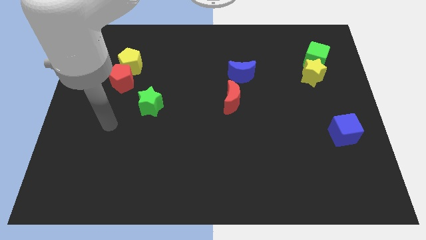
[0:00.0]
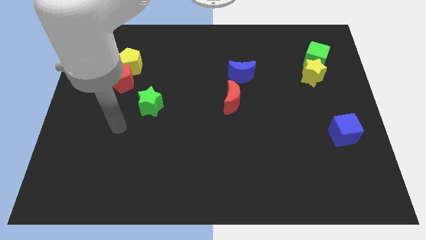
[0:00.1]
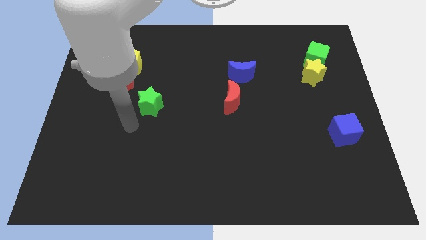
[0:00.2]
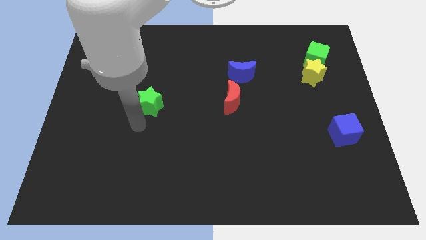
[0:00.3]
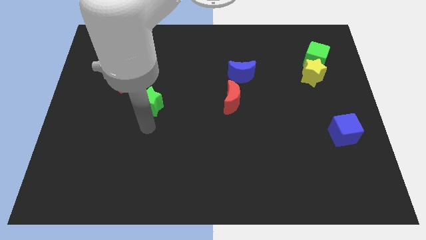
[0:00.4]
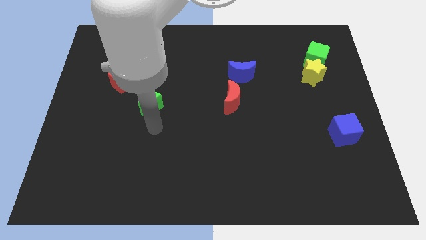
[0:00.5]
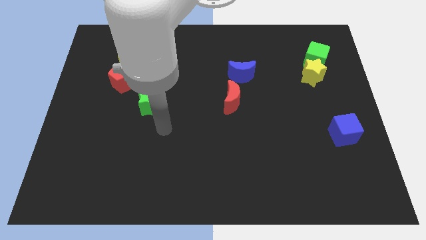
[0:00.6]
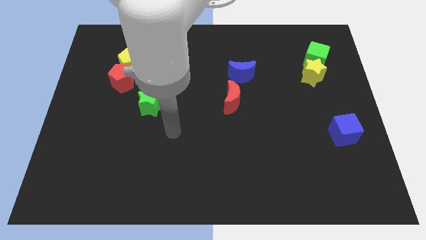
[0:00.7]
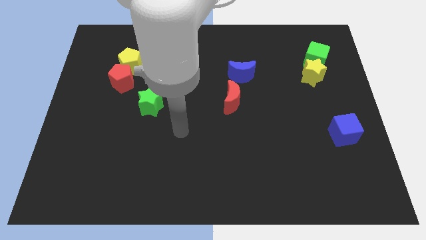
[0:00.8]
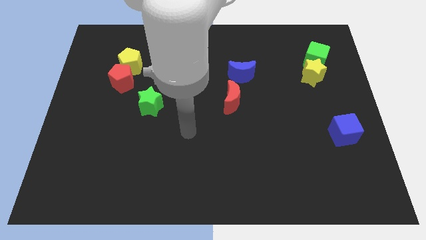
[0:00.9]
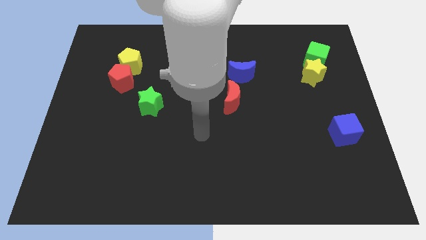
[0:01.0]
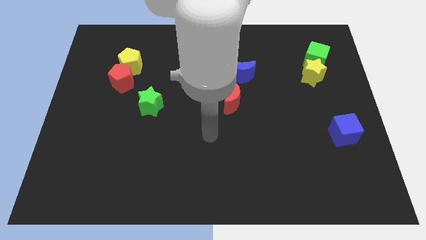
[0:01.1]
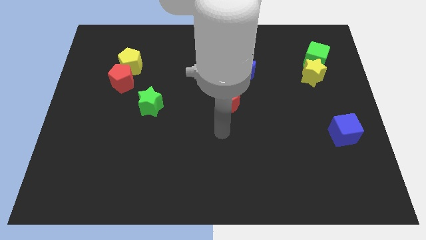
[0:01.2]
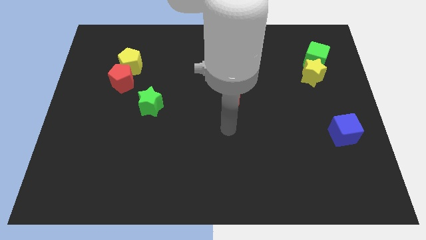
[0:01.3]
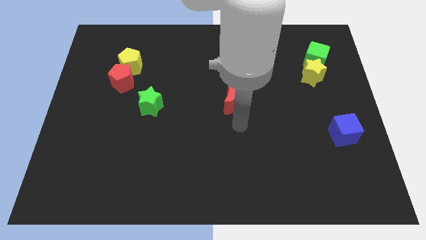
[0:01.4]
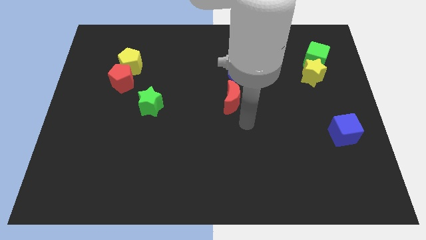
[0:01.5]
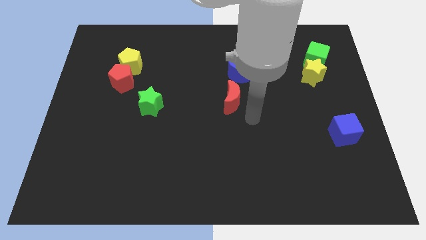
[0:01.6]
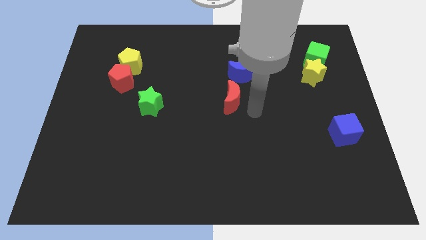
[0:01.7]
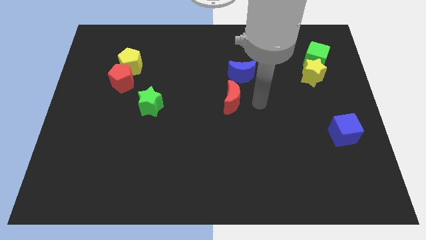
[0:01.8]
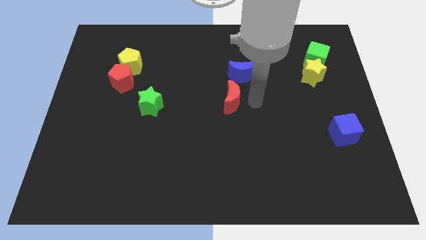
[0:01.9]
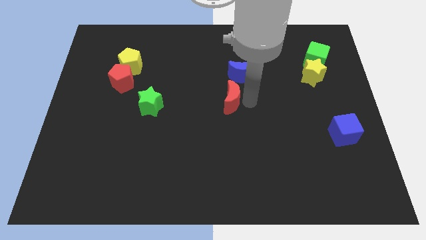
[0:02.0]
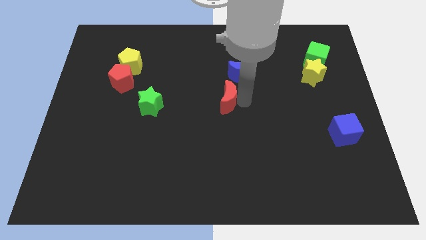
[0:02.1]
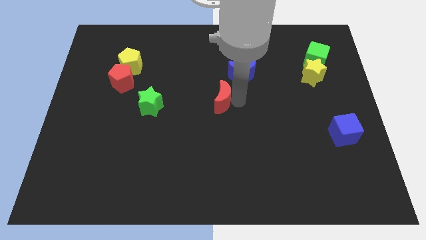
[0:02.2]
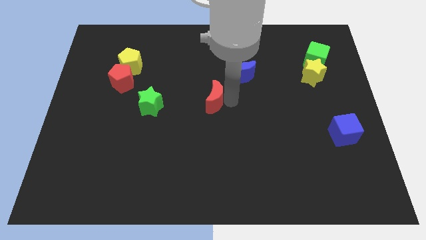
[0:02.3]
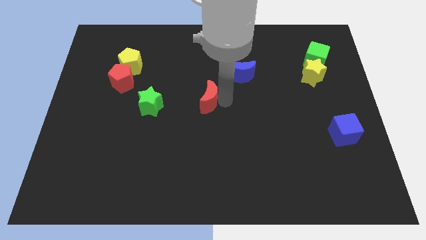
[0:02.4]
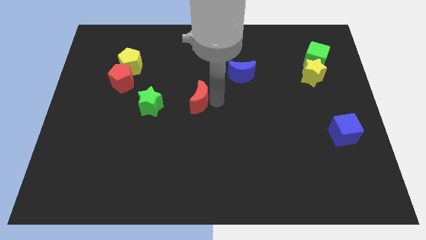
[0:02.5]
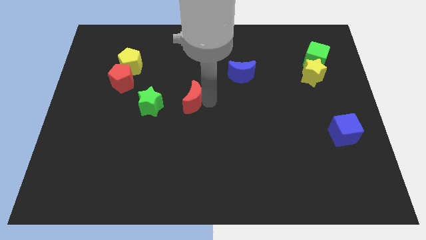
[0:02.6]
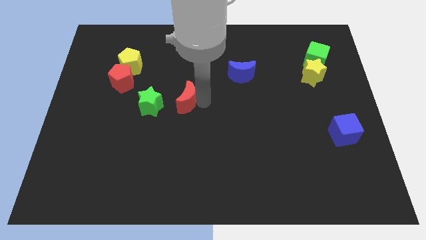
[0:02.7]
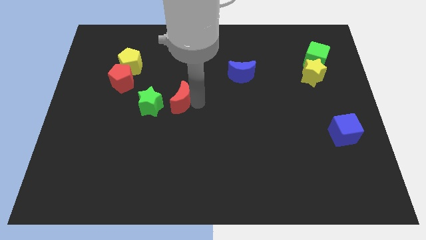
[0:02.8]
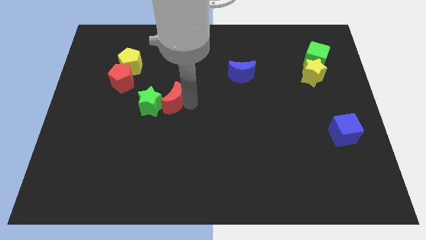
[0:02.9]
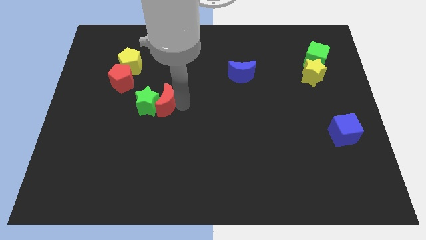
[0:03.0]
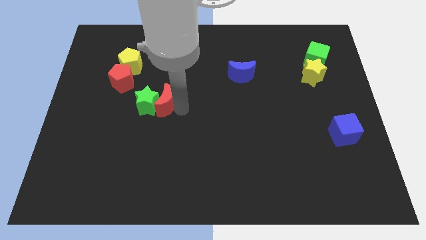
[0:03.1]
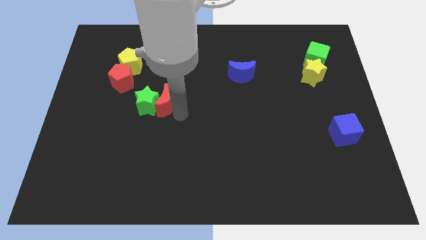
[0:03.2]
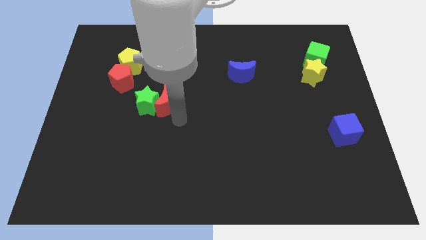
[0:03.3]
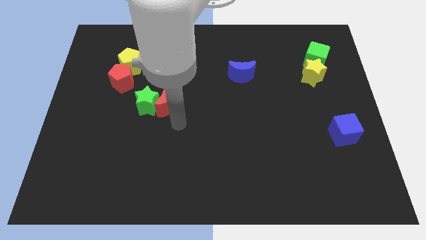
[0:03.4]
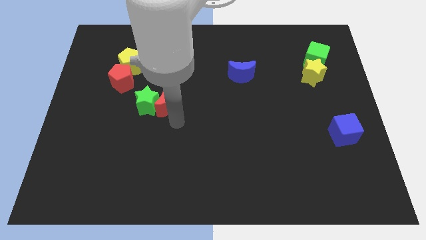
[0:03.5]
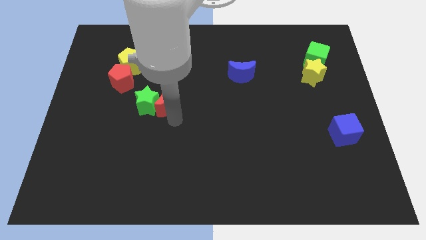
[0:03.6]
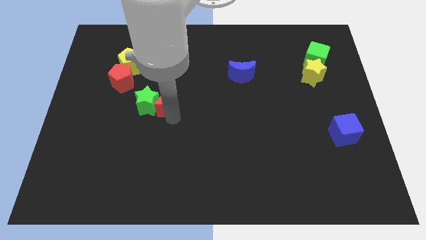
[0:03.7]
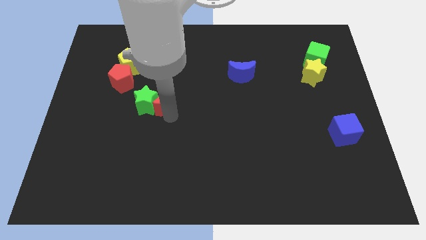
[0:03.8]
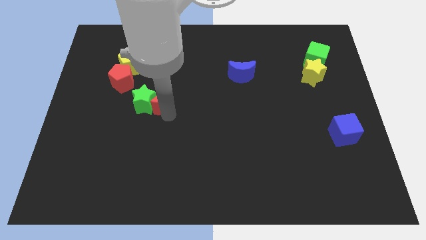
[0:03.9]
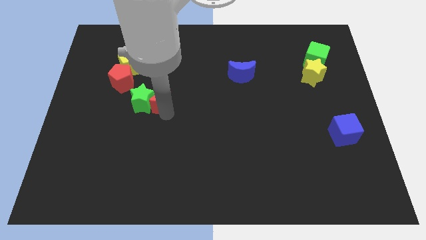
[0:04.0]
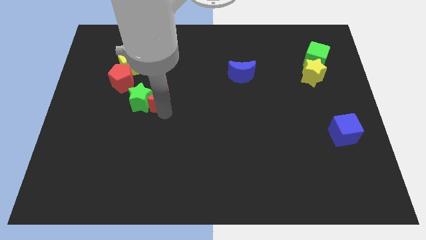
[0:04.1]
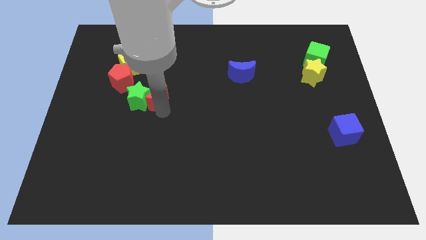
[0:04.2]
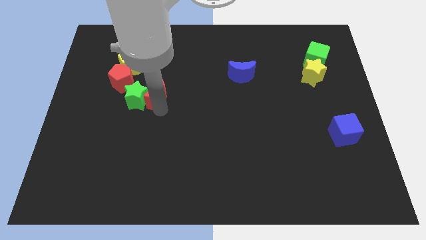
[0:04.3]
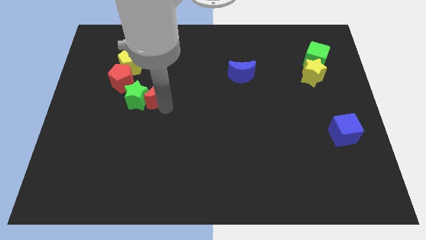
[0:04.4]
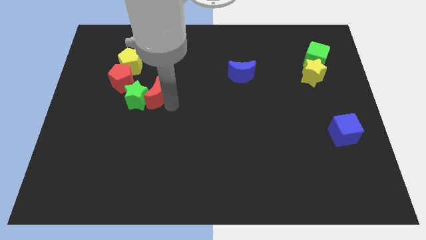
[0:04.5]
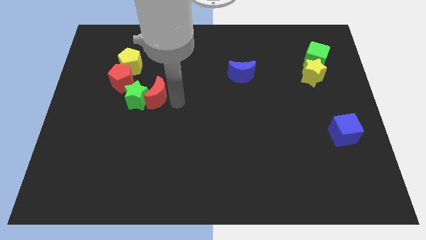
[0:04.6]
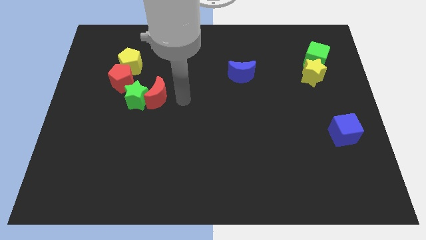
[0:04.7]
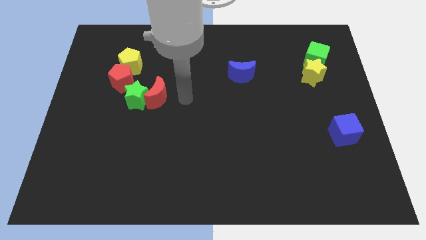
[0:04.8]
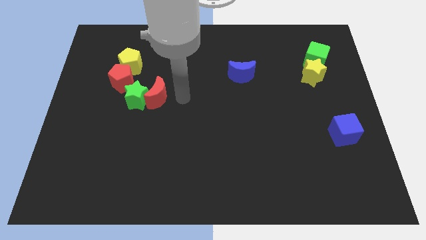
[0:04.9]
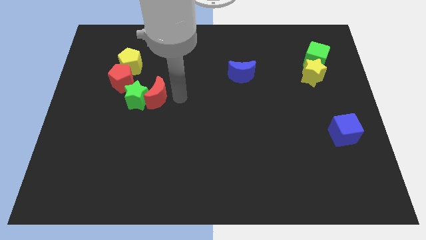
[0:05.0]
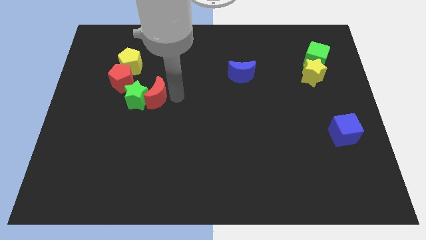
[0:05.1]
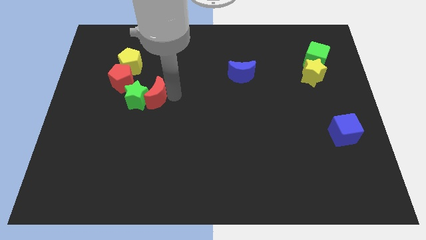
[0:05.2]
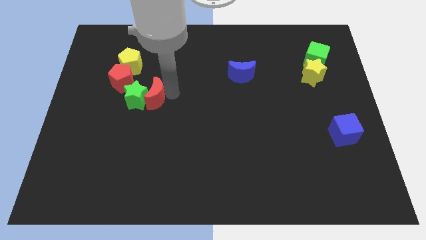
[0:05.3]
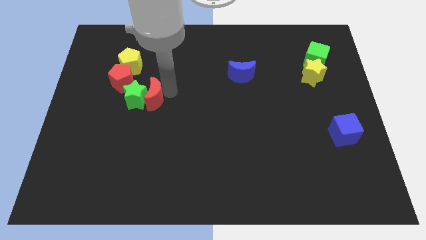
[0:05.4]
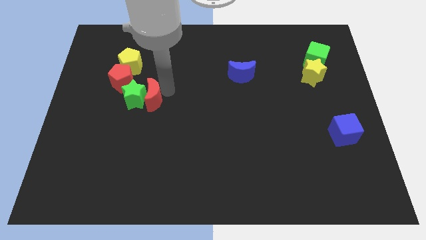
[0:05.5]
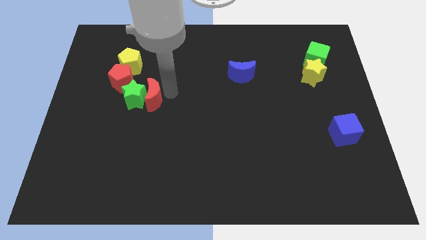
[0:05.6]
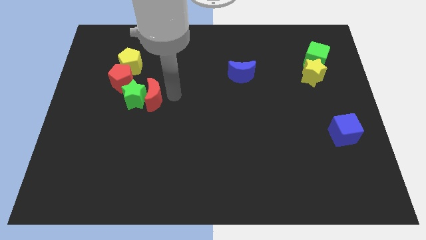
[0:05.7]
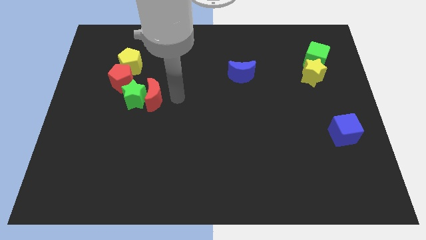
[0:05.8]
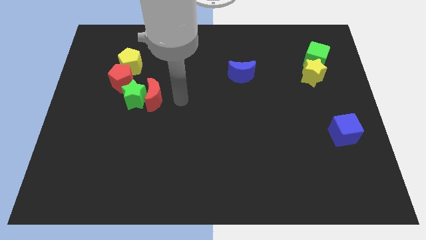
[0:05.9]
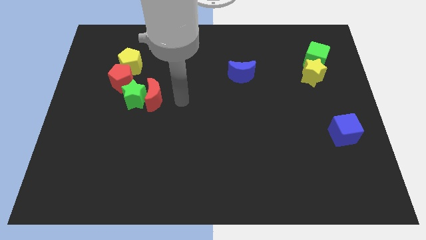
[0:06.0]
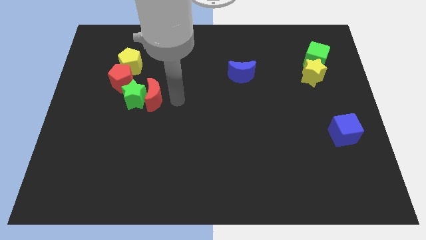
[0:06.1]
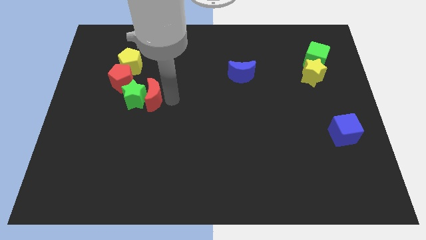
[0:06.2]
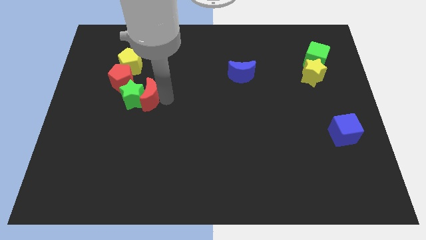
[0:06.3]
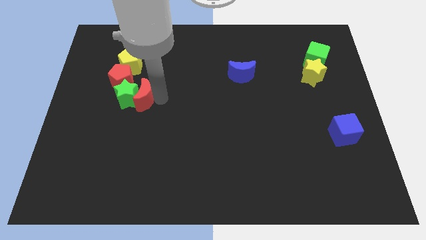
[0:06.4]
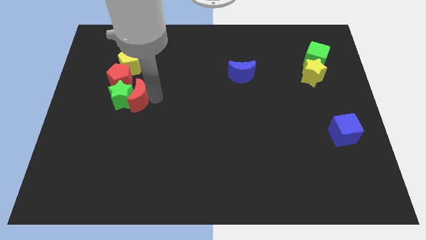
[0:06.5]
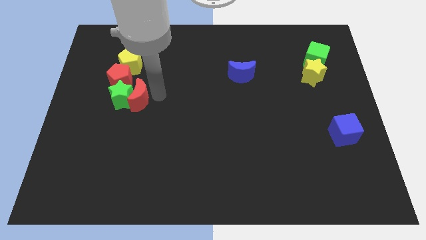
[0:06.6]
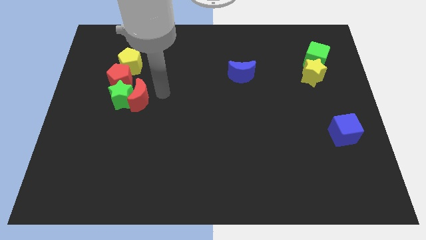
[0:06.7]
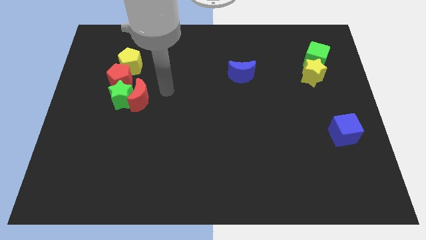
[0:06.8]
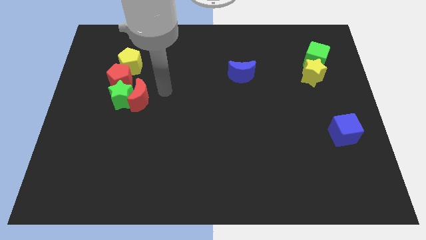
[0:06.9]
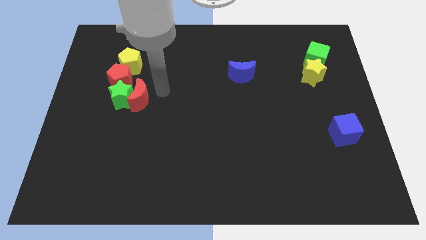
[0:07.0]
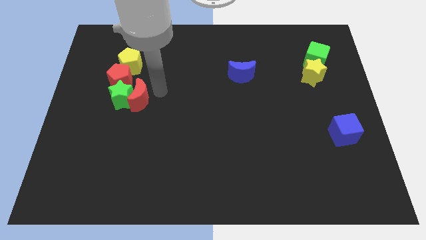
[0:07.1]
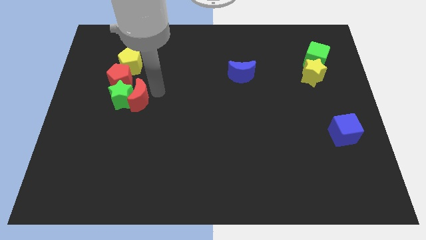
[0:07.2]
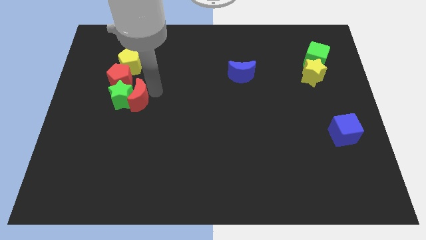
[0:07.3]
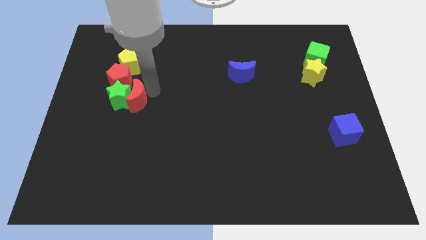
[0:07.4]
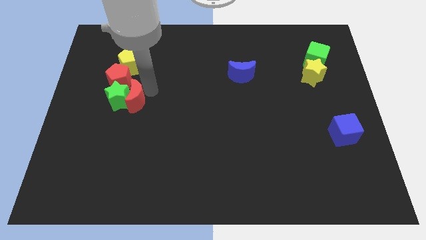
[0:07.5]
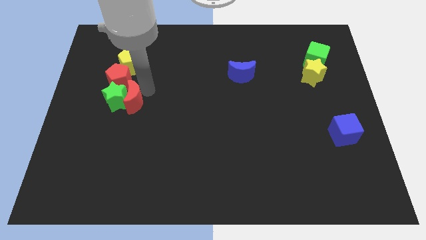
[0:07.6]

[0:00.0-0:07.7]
put the red moon below the red pentagon
